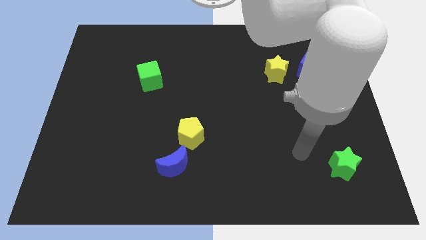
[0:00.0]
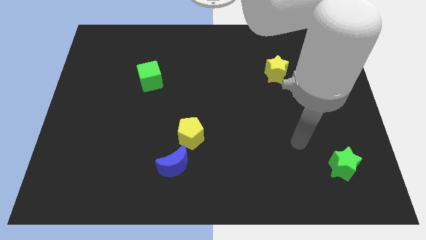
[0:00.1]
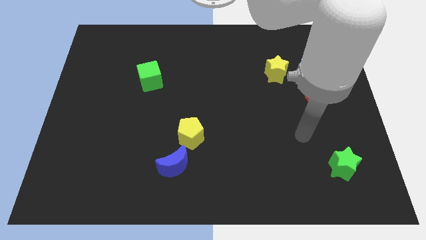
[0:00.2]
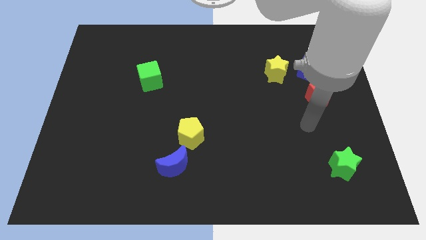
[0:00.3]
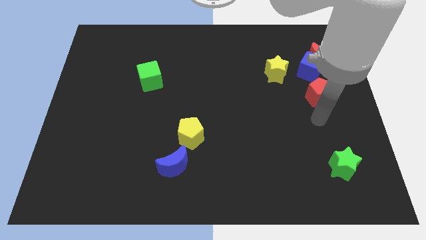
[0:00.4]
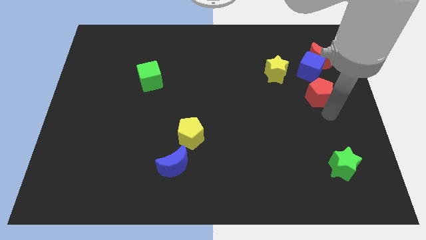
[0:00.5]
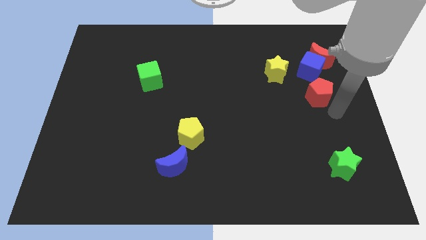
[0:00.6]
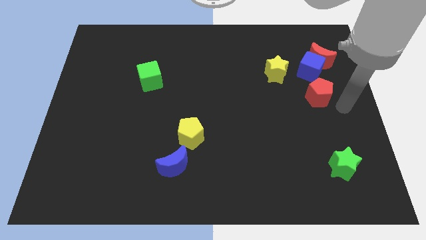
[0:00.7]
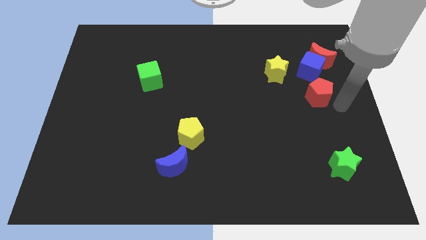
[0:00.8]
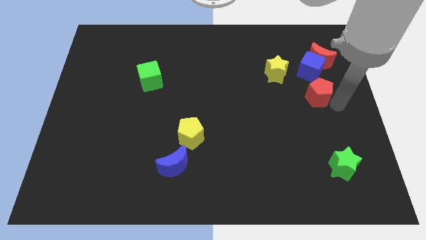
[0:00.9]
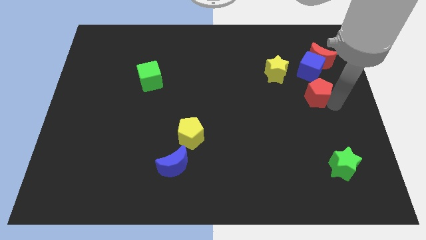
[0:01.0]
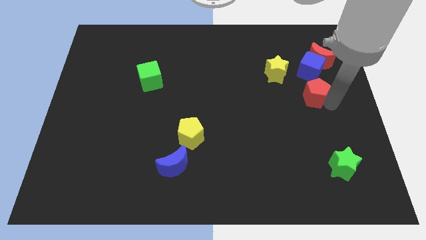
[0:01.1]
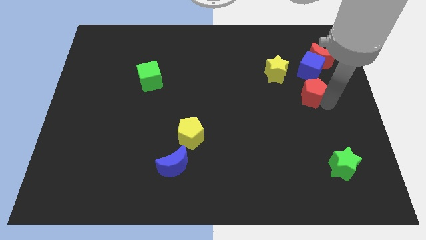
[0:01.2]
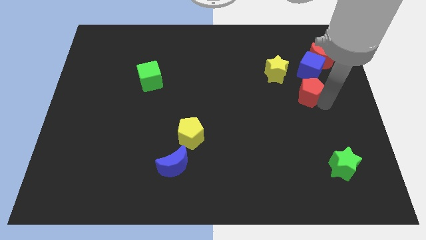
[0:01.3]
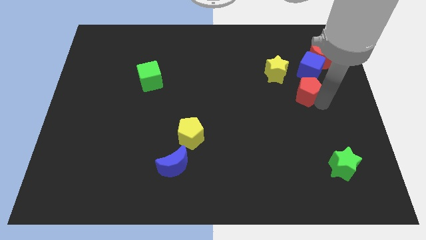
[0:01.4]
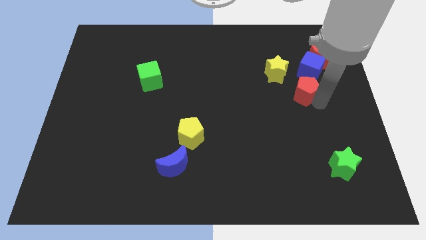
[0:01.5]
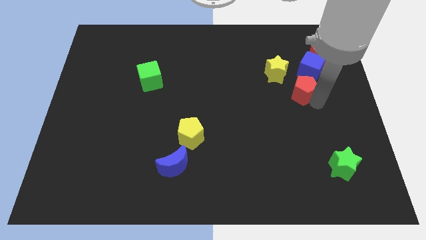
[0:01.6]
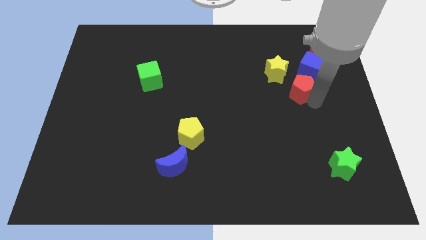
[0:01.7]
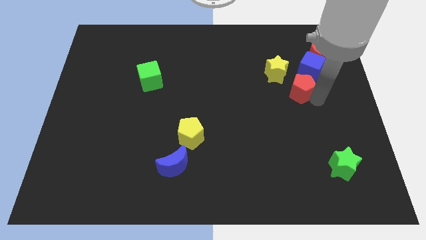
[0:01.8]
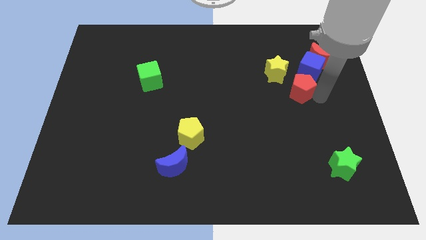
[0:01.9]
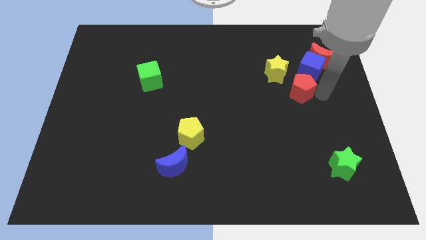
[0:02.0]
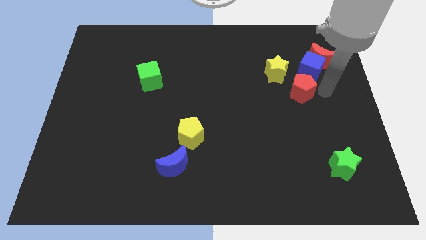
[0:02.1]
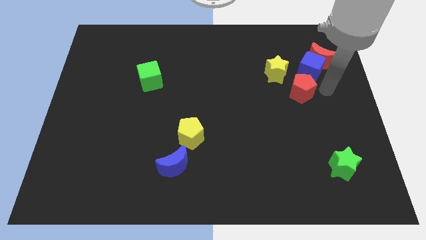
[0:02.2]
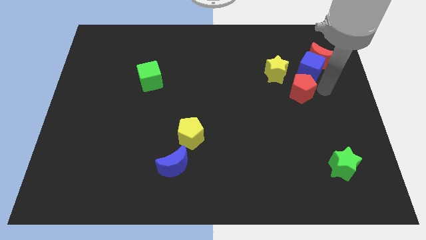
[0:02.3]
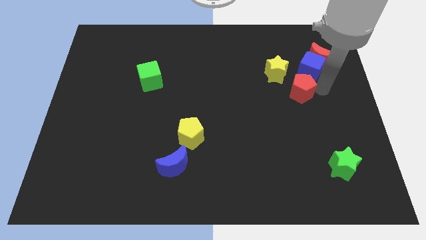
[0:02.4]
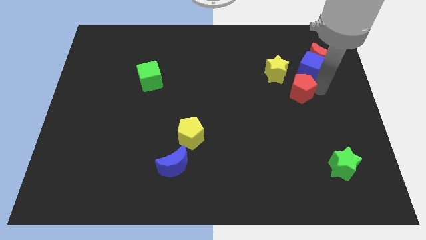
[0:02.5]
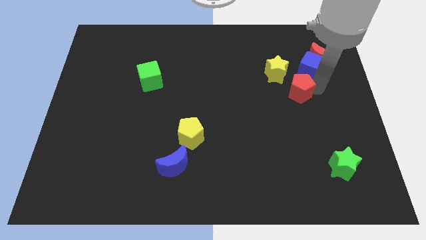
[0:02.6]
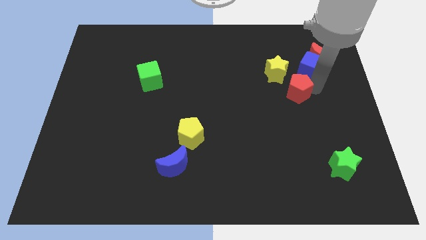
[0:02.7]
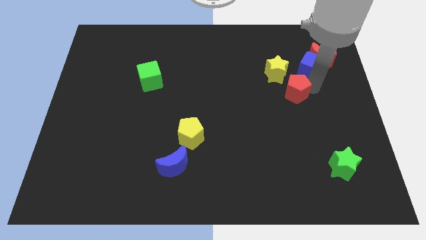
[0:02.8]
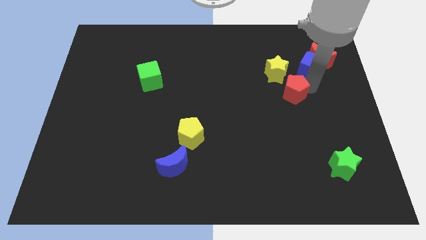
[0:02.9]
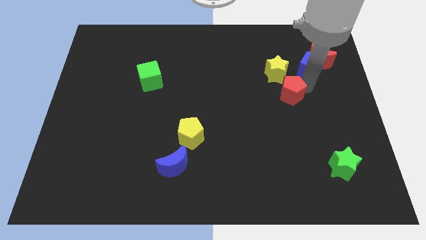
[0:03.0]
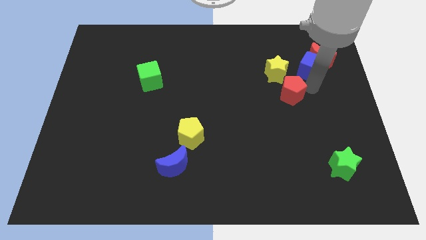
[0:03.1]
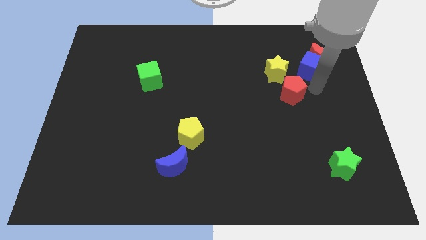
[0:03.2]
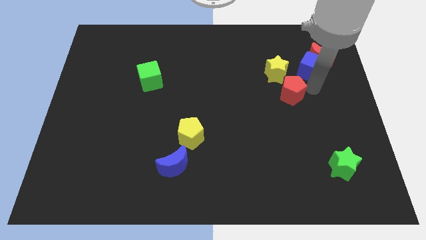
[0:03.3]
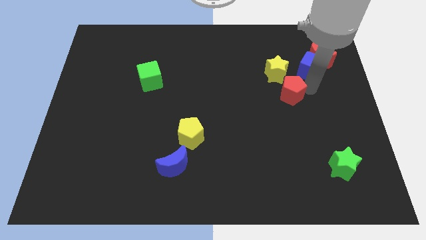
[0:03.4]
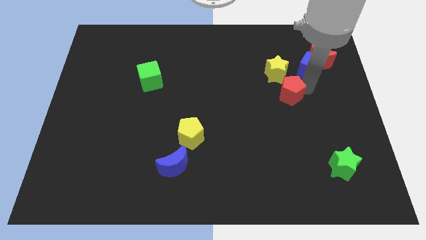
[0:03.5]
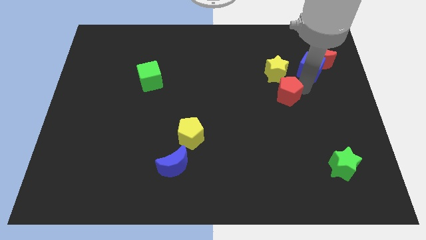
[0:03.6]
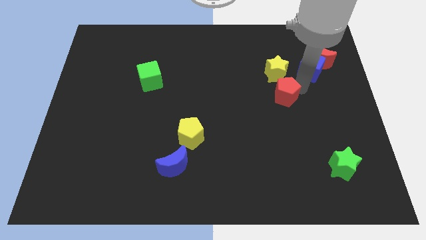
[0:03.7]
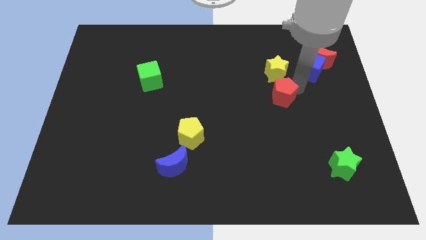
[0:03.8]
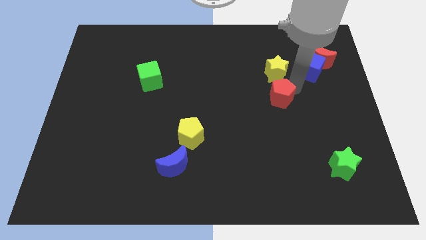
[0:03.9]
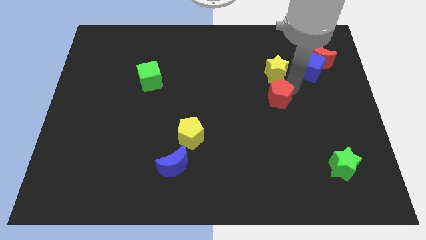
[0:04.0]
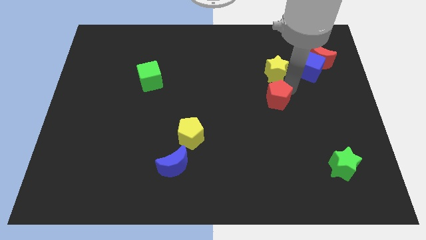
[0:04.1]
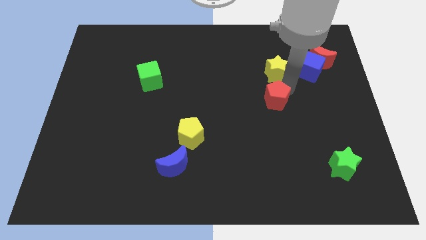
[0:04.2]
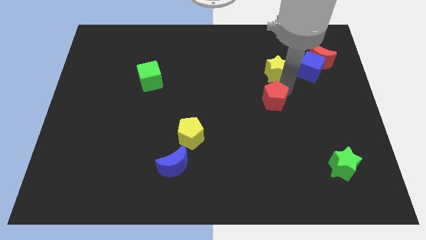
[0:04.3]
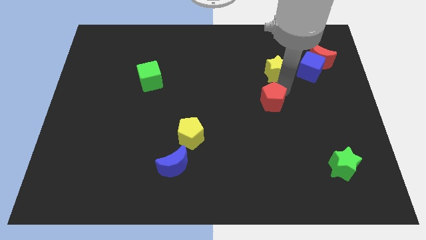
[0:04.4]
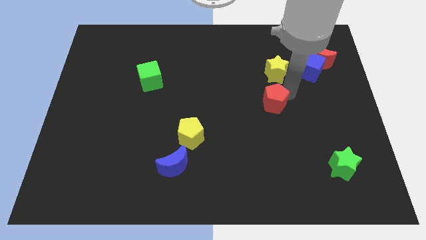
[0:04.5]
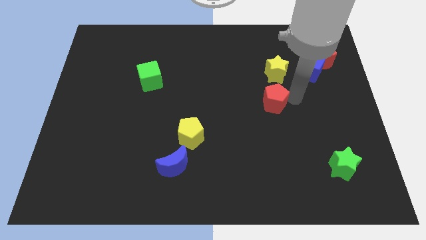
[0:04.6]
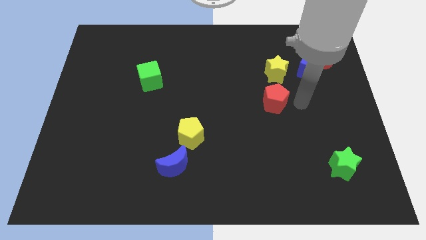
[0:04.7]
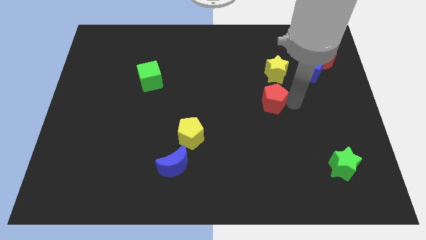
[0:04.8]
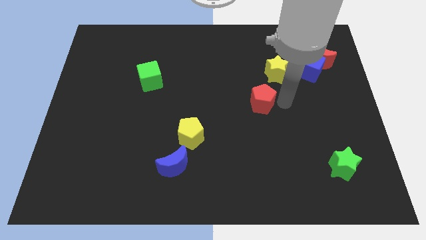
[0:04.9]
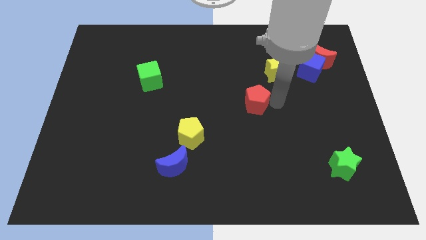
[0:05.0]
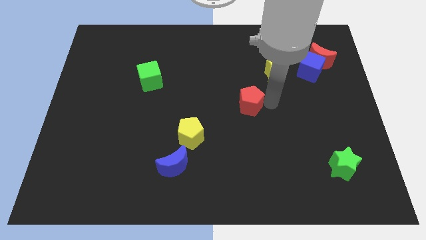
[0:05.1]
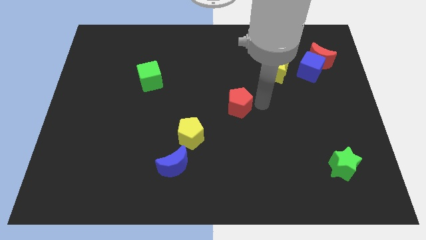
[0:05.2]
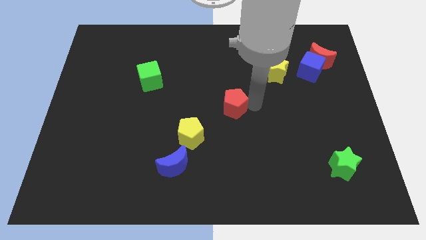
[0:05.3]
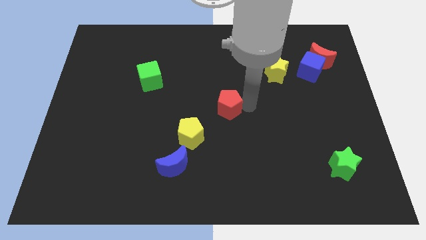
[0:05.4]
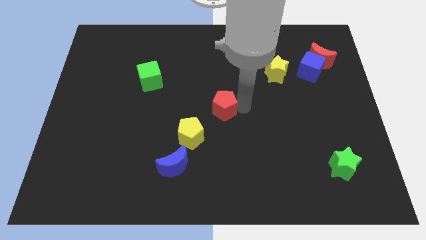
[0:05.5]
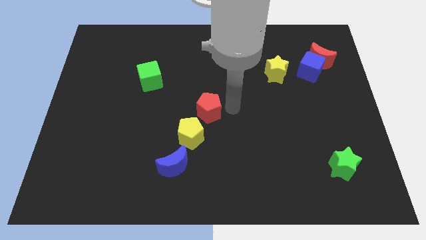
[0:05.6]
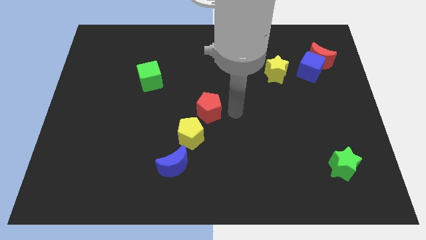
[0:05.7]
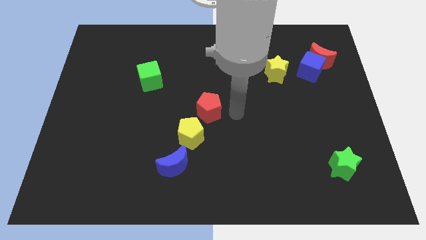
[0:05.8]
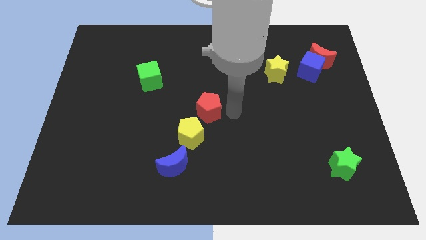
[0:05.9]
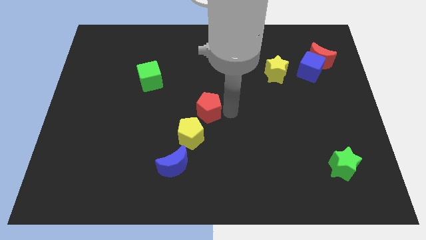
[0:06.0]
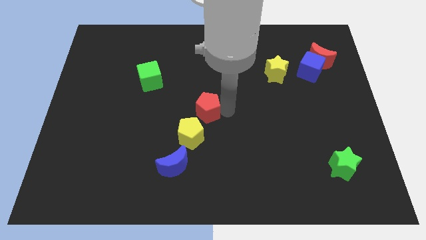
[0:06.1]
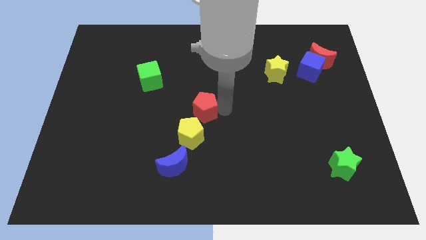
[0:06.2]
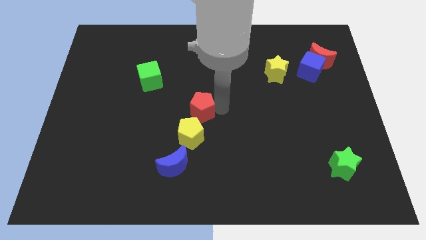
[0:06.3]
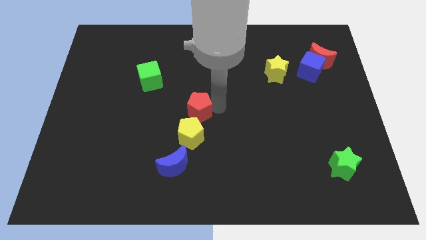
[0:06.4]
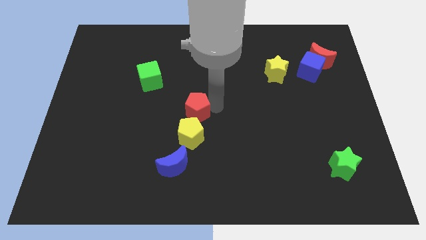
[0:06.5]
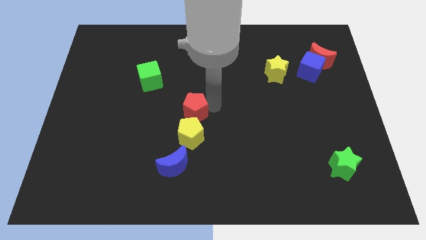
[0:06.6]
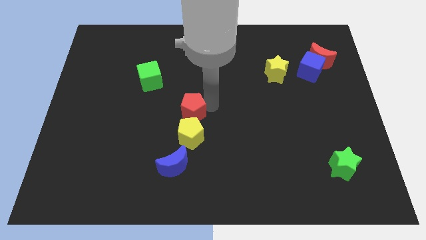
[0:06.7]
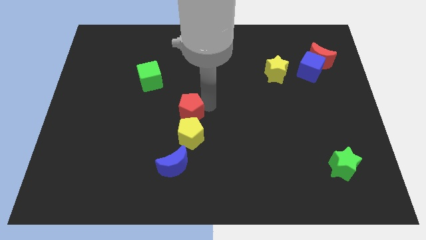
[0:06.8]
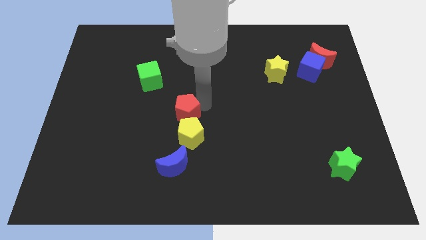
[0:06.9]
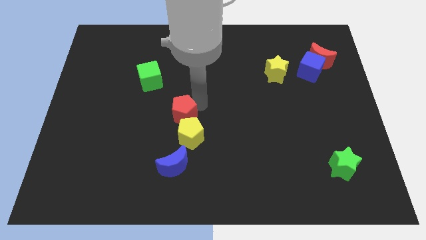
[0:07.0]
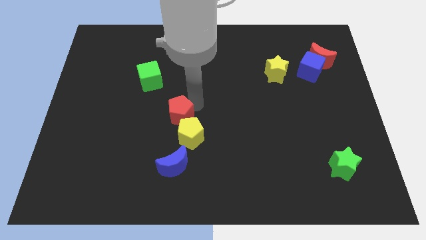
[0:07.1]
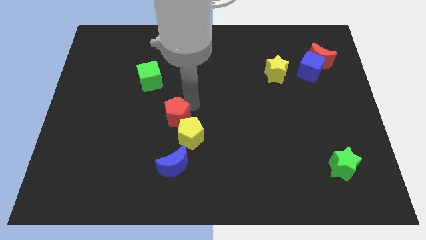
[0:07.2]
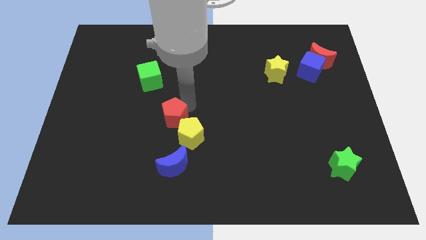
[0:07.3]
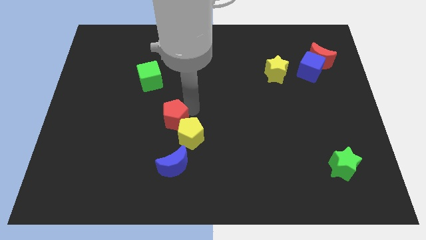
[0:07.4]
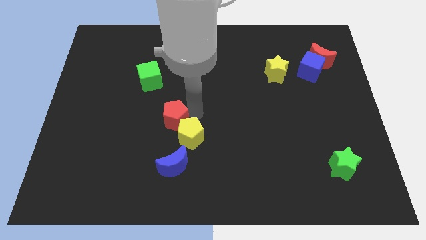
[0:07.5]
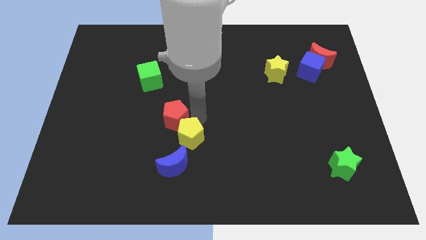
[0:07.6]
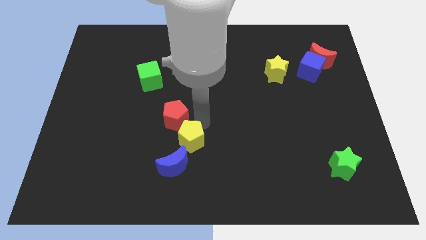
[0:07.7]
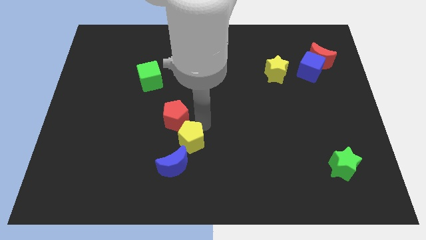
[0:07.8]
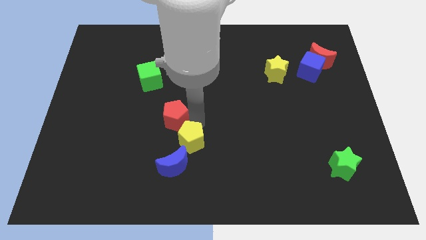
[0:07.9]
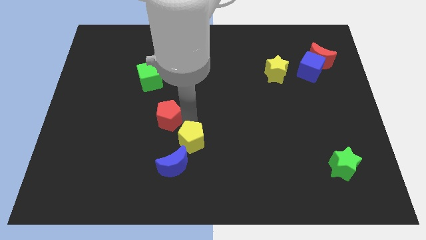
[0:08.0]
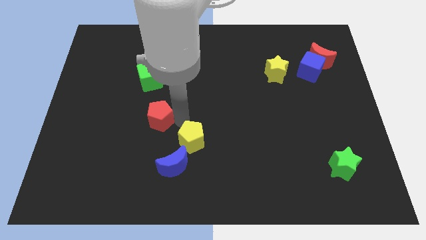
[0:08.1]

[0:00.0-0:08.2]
move the red pentagon below the green cube
